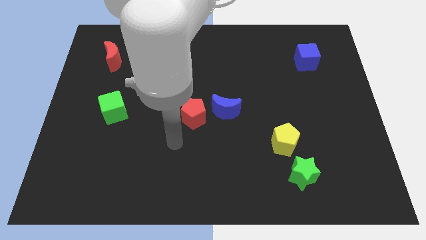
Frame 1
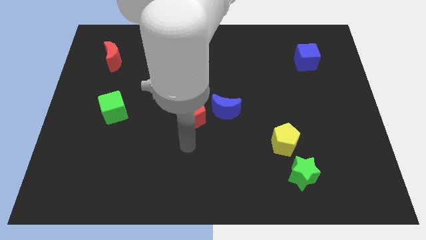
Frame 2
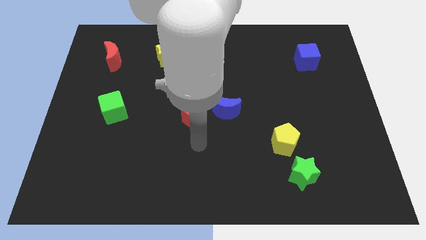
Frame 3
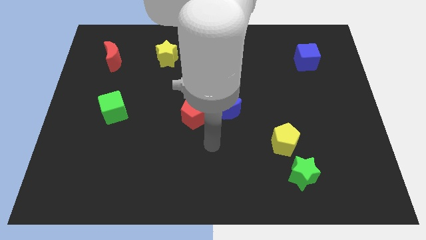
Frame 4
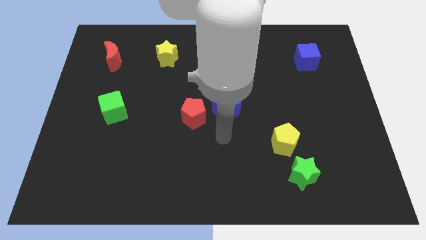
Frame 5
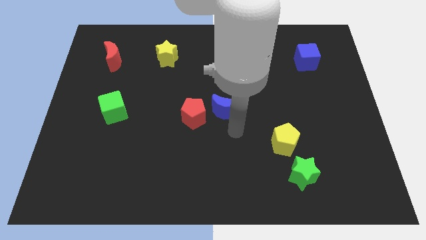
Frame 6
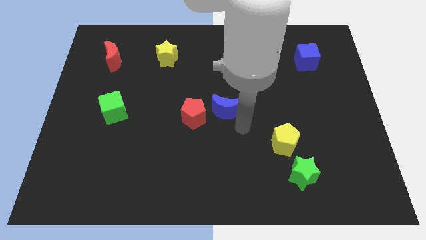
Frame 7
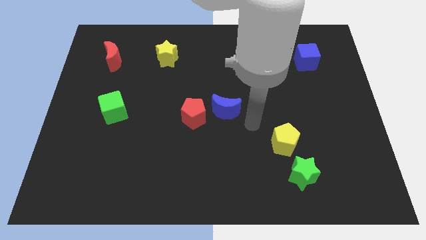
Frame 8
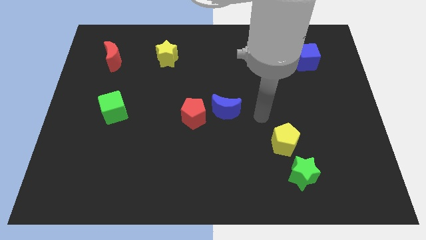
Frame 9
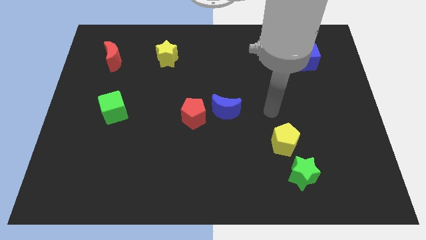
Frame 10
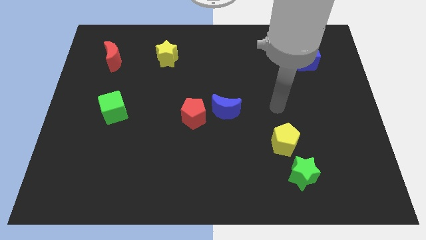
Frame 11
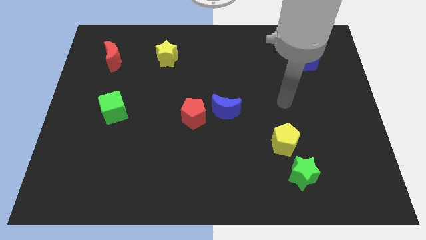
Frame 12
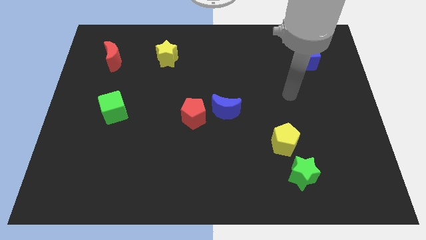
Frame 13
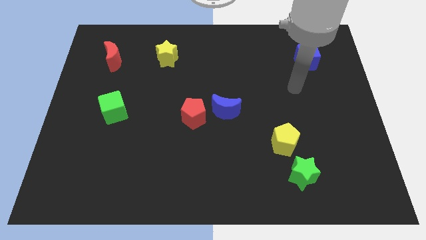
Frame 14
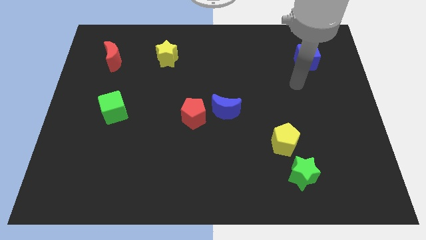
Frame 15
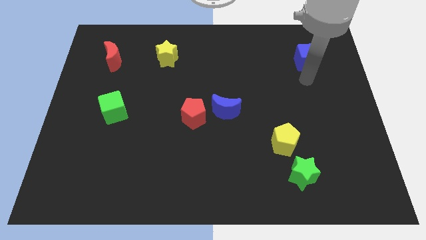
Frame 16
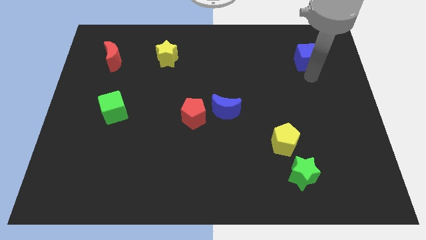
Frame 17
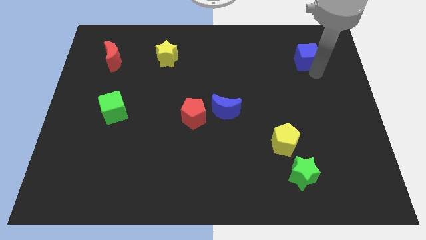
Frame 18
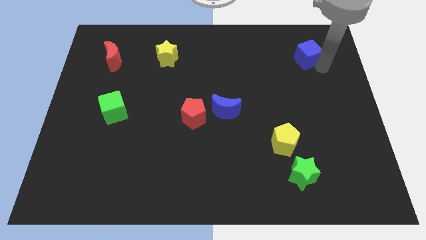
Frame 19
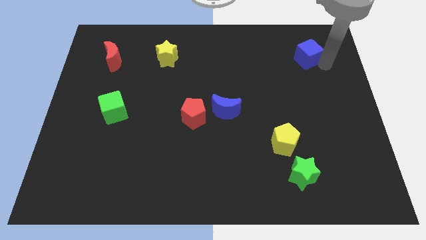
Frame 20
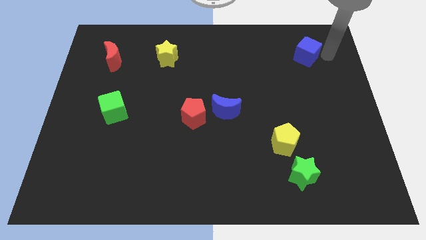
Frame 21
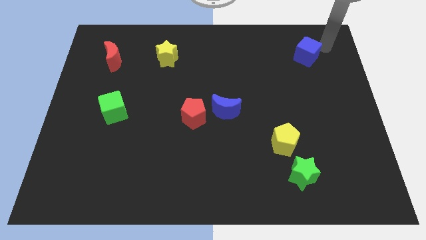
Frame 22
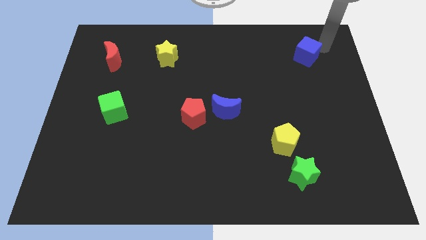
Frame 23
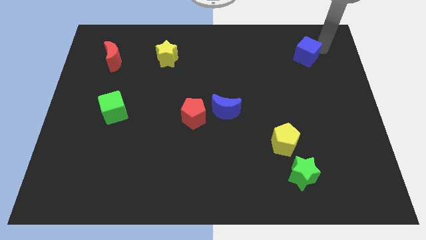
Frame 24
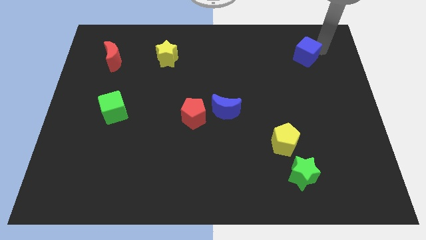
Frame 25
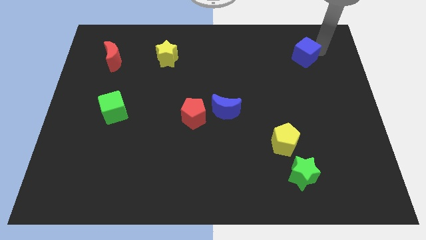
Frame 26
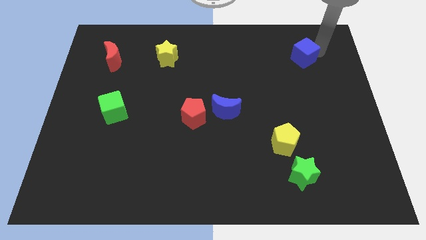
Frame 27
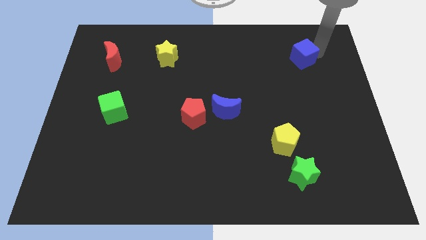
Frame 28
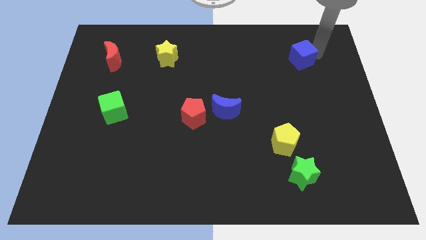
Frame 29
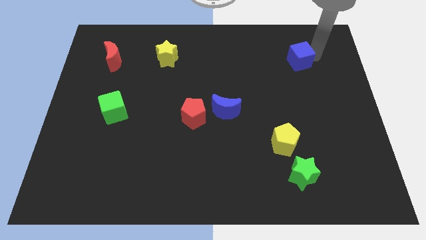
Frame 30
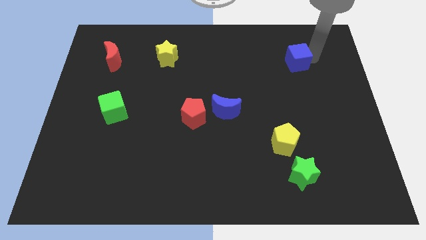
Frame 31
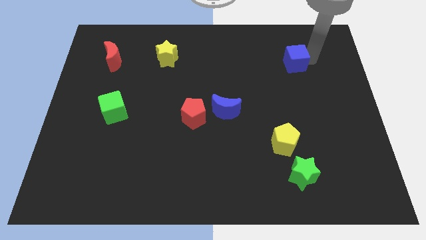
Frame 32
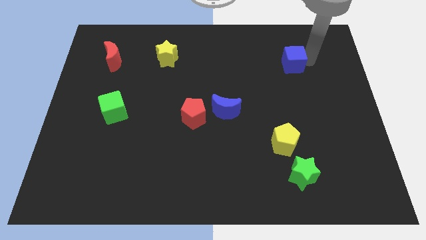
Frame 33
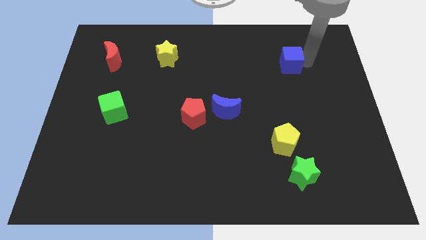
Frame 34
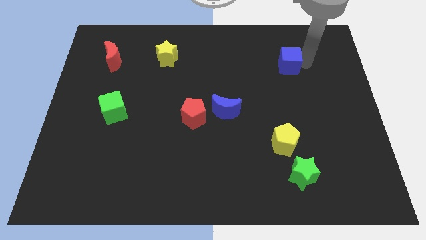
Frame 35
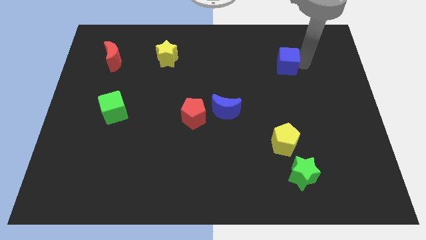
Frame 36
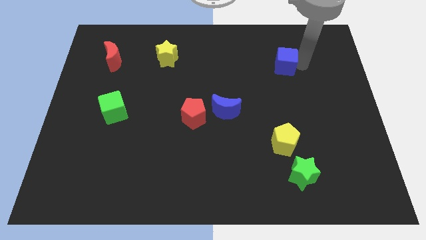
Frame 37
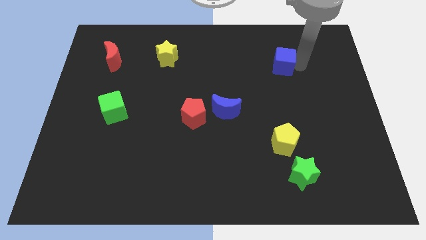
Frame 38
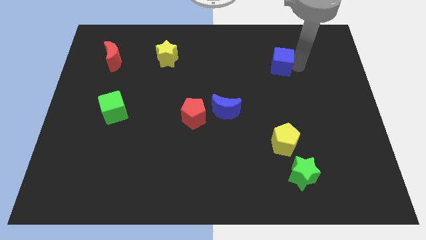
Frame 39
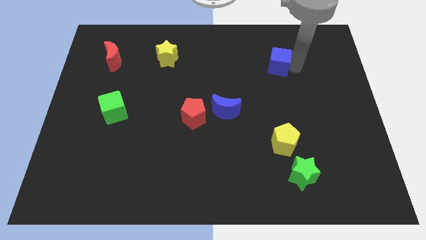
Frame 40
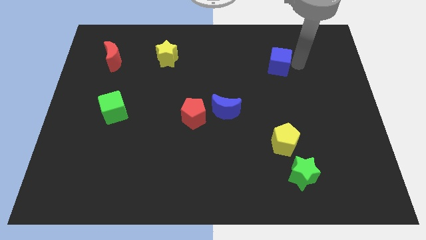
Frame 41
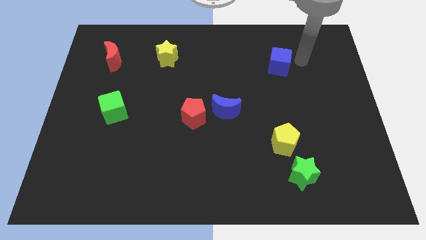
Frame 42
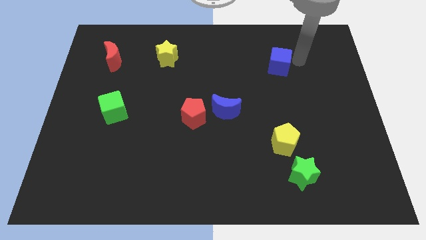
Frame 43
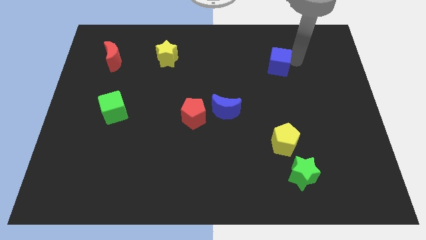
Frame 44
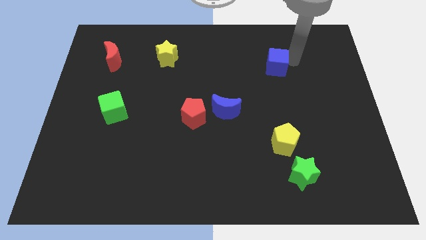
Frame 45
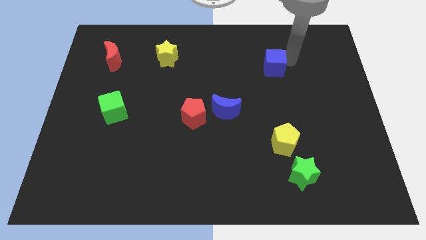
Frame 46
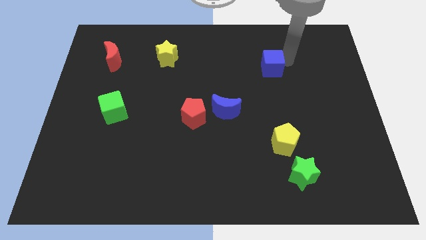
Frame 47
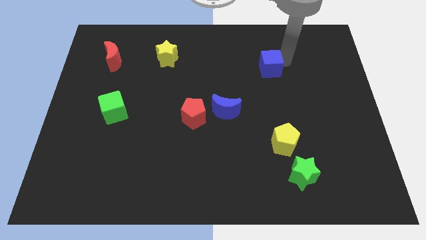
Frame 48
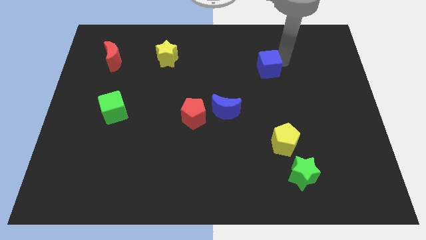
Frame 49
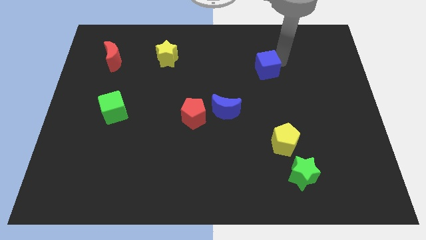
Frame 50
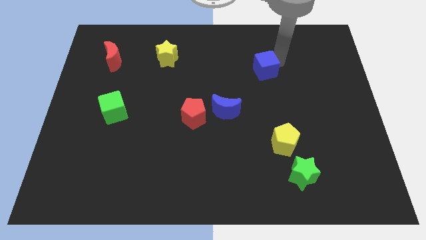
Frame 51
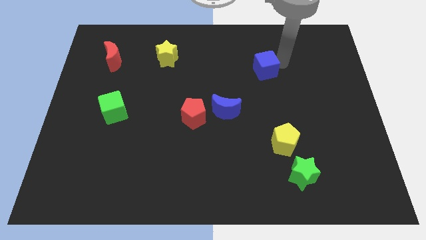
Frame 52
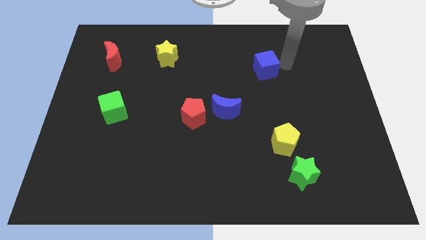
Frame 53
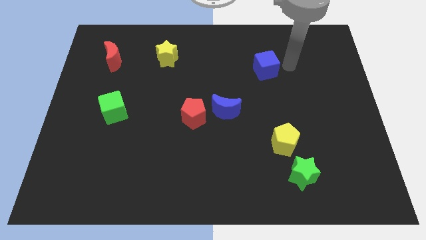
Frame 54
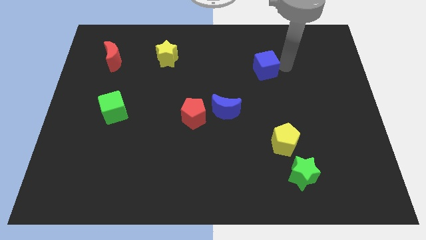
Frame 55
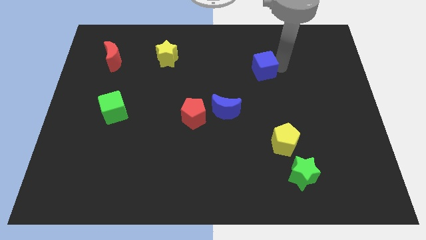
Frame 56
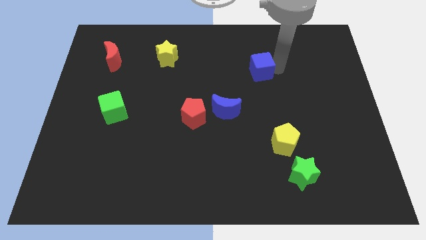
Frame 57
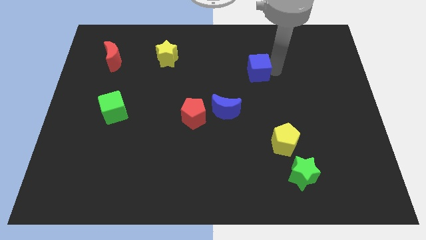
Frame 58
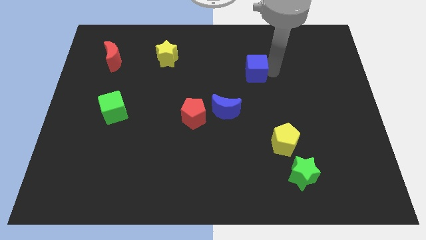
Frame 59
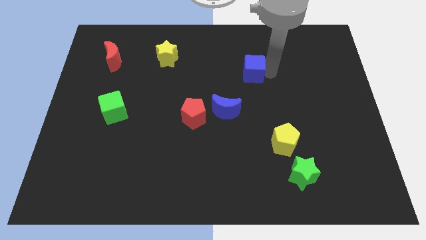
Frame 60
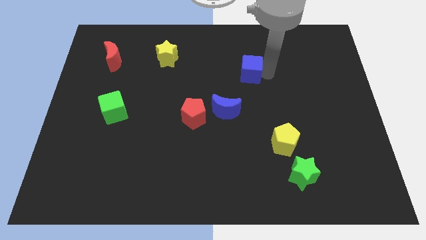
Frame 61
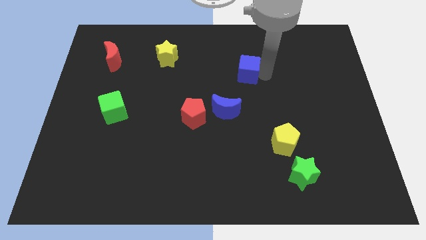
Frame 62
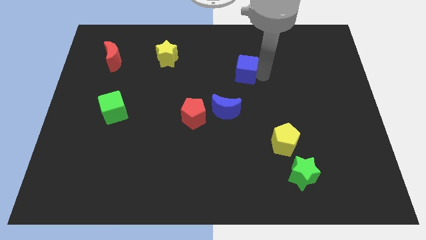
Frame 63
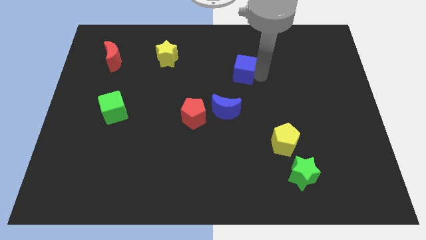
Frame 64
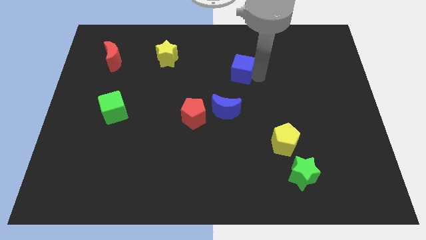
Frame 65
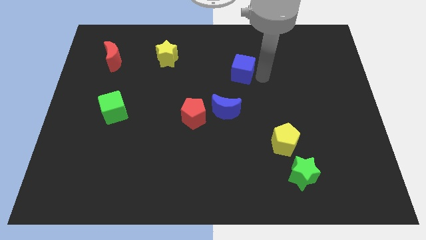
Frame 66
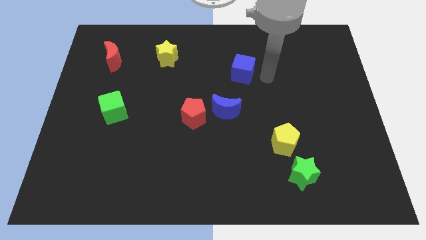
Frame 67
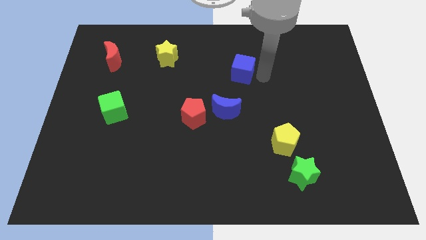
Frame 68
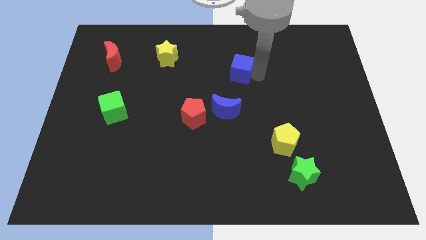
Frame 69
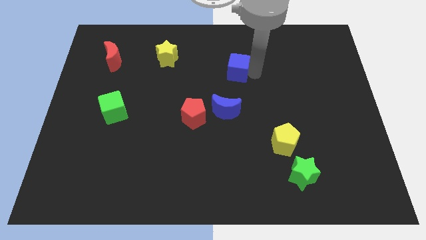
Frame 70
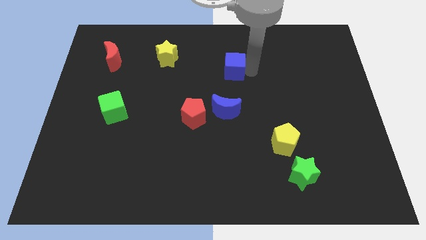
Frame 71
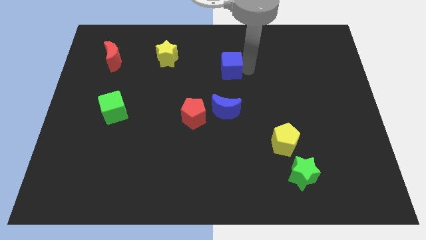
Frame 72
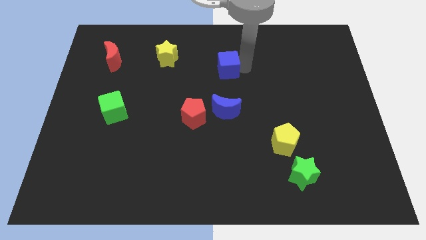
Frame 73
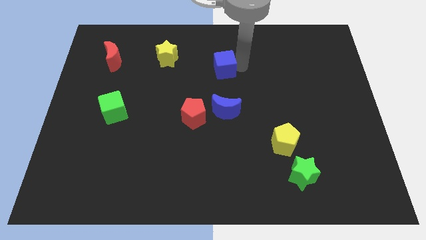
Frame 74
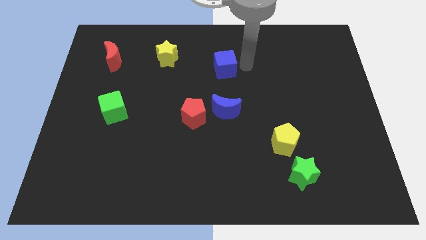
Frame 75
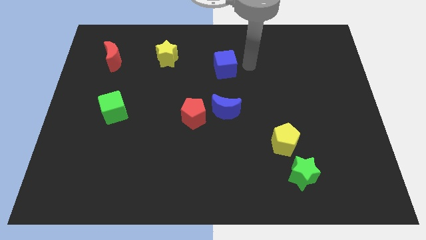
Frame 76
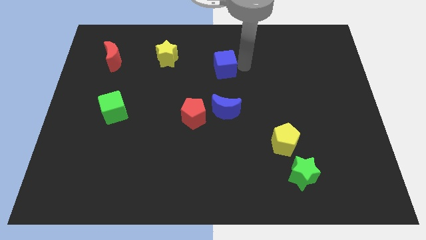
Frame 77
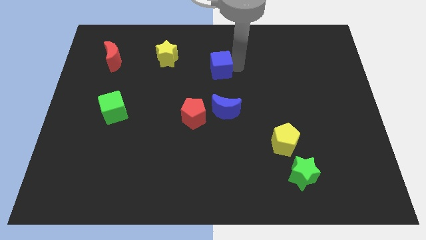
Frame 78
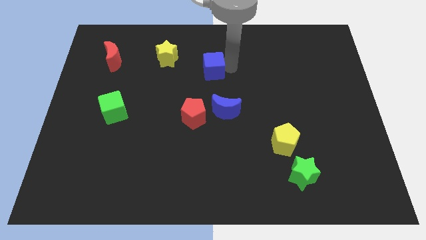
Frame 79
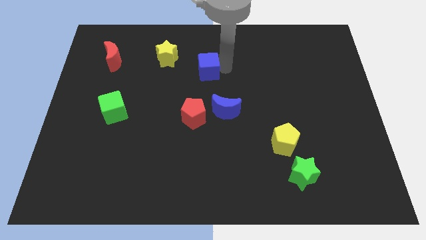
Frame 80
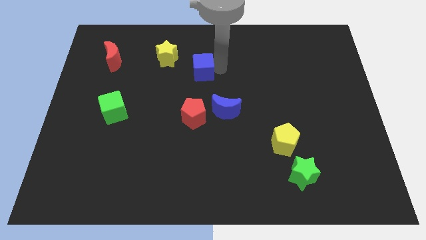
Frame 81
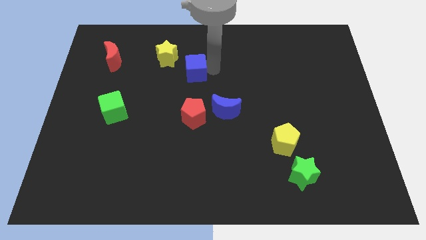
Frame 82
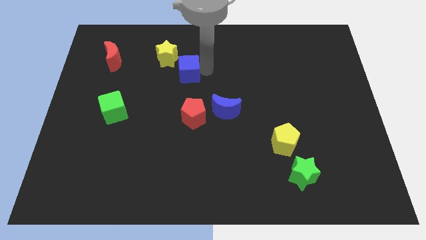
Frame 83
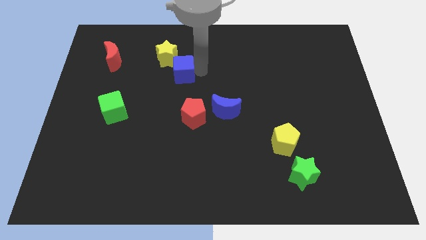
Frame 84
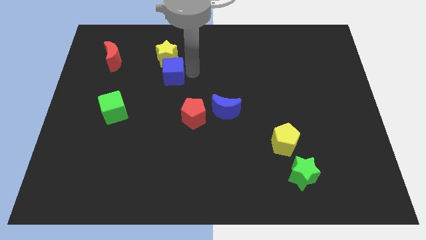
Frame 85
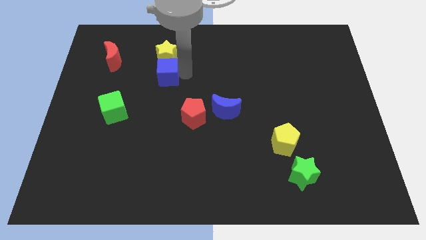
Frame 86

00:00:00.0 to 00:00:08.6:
move the blue cube diagonally down and to the left of the yellow star
